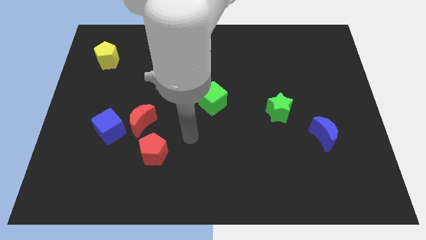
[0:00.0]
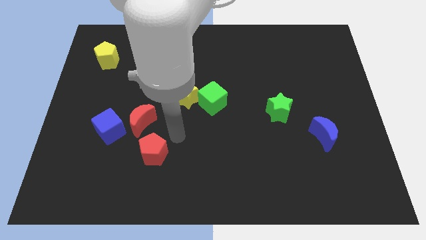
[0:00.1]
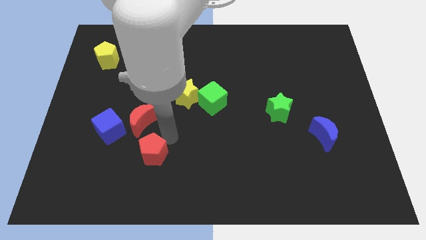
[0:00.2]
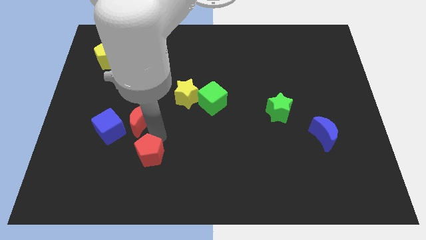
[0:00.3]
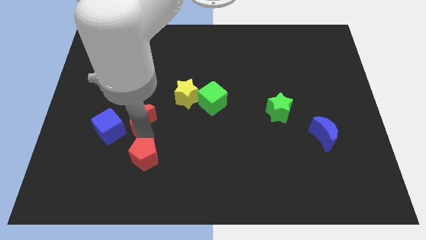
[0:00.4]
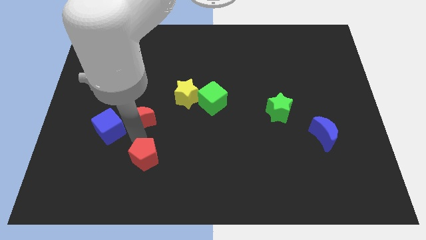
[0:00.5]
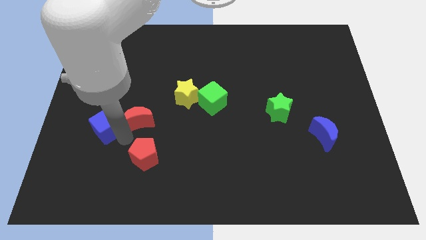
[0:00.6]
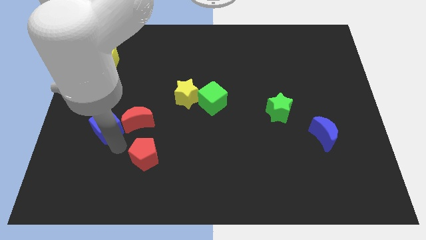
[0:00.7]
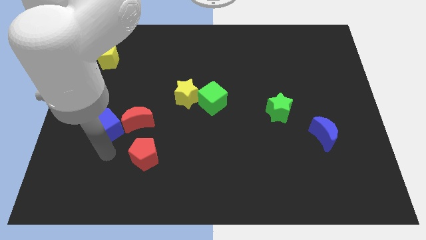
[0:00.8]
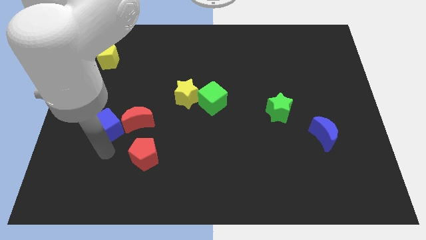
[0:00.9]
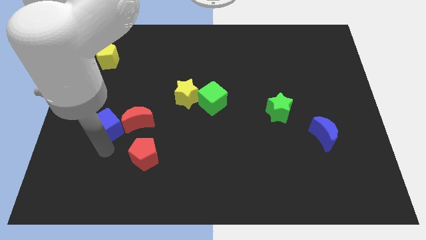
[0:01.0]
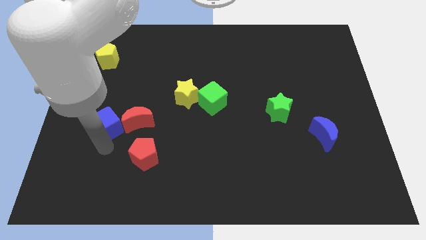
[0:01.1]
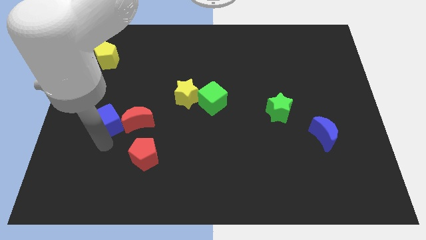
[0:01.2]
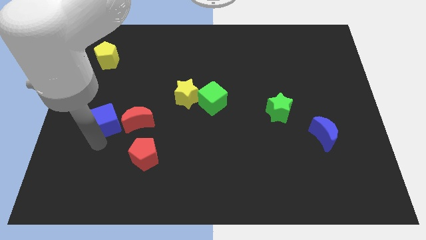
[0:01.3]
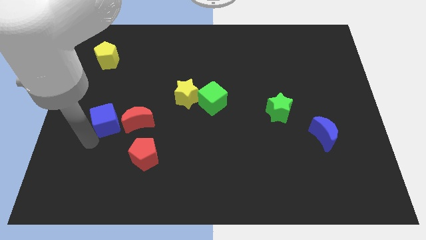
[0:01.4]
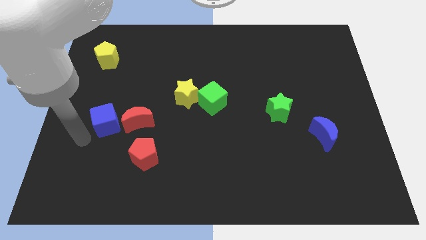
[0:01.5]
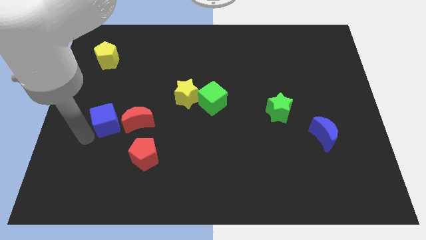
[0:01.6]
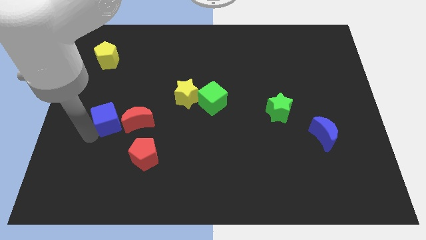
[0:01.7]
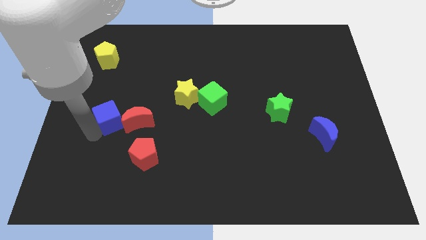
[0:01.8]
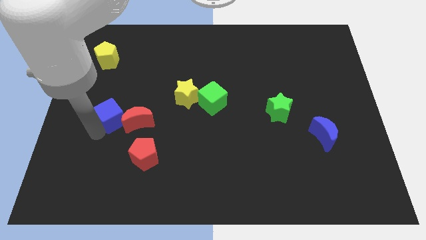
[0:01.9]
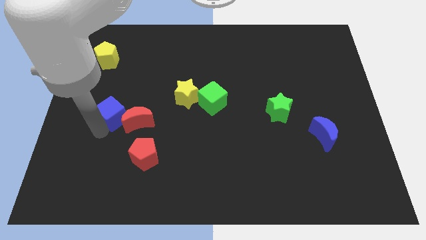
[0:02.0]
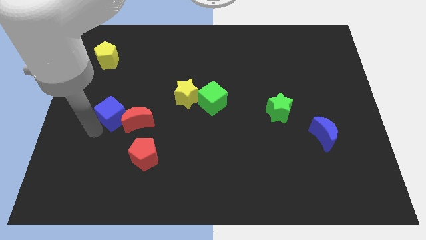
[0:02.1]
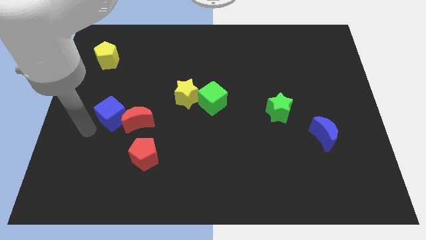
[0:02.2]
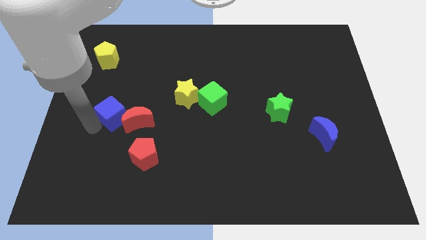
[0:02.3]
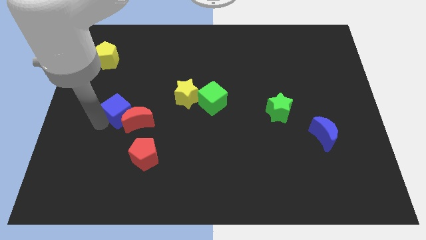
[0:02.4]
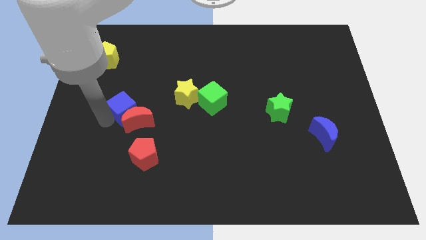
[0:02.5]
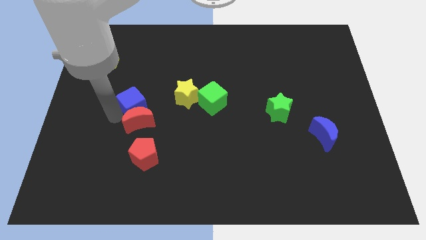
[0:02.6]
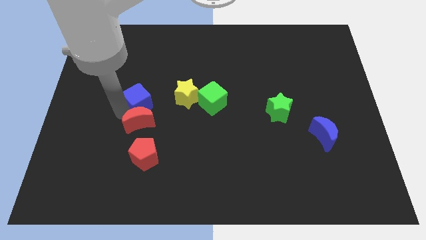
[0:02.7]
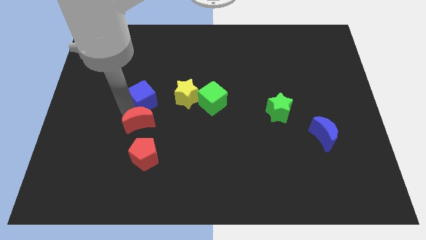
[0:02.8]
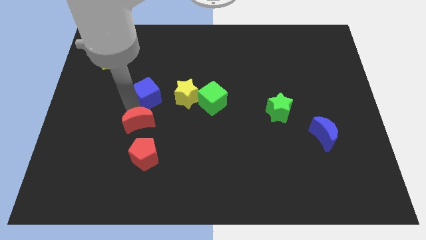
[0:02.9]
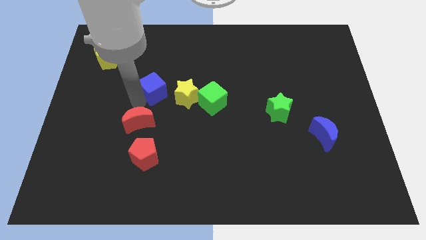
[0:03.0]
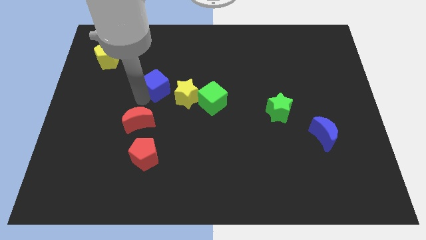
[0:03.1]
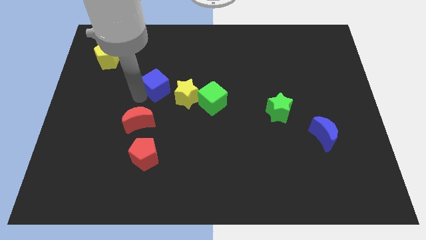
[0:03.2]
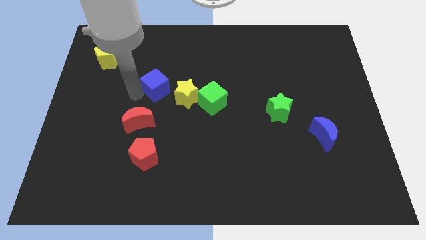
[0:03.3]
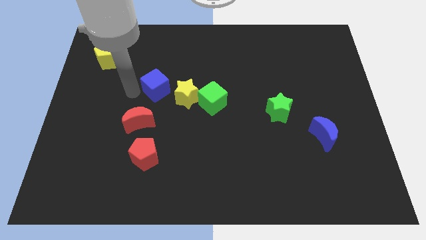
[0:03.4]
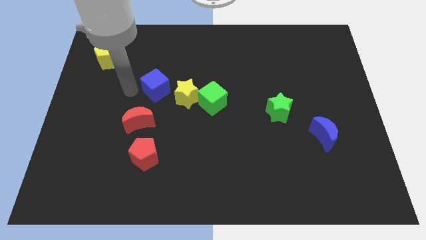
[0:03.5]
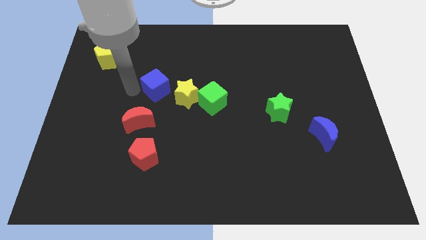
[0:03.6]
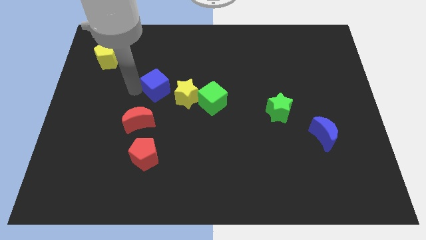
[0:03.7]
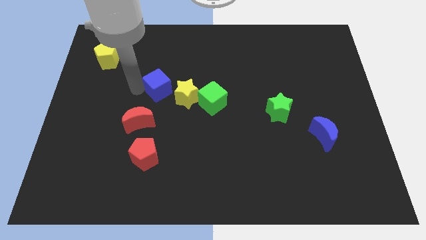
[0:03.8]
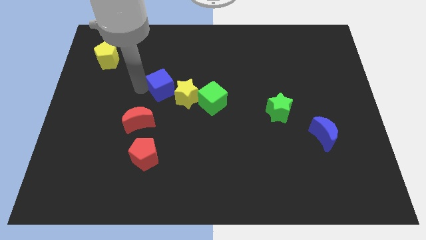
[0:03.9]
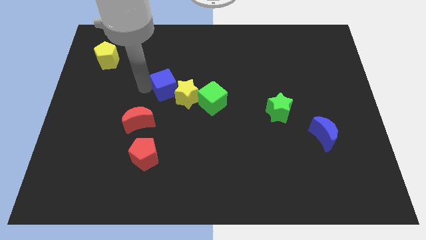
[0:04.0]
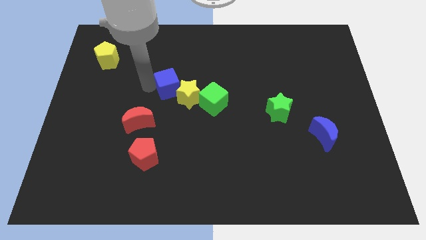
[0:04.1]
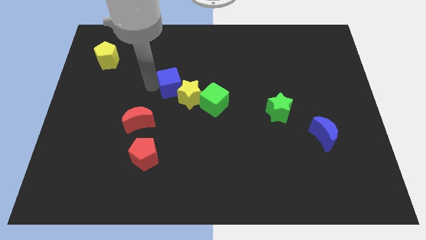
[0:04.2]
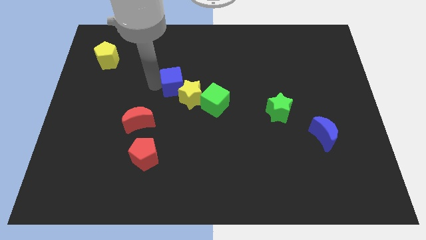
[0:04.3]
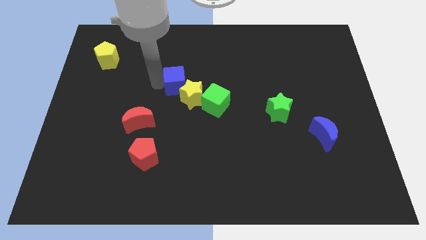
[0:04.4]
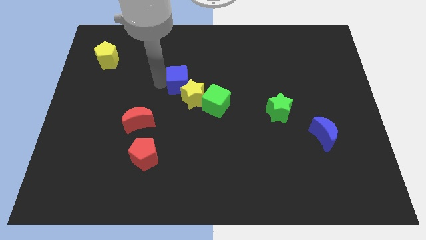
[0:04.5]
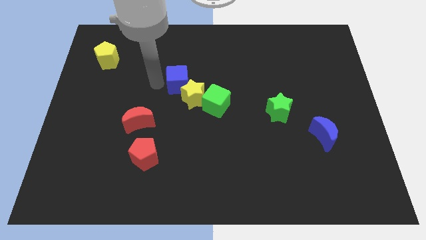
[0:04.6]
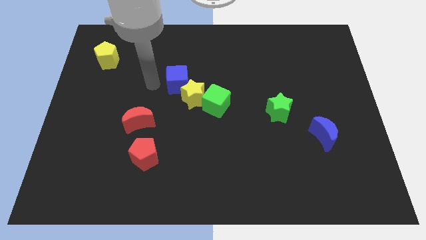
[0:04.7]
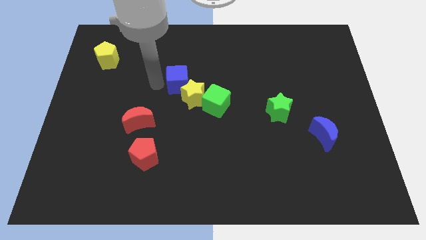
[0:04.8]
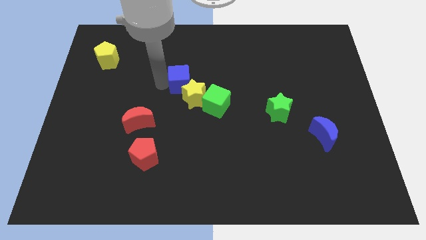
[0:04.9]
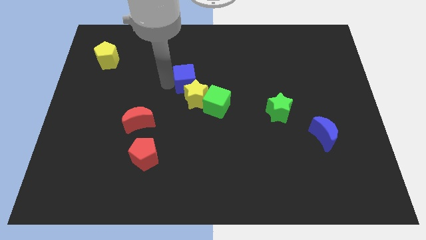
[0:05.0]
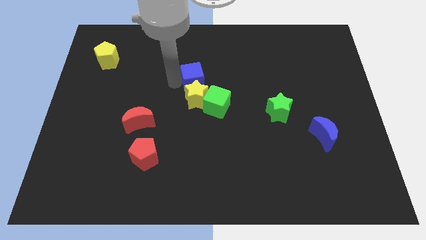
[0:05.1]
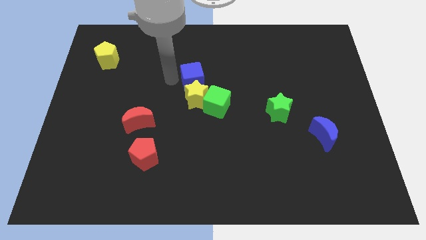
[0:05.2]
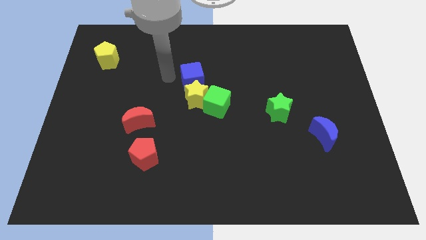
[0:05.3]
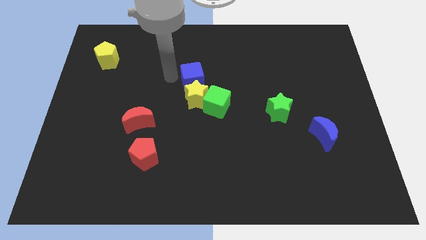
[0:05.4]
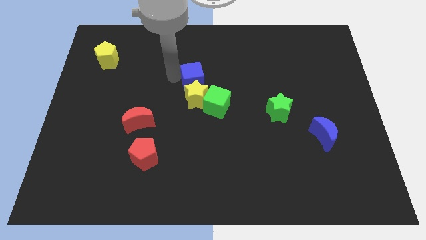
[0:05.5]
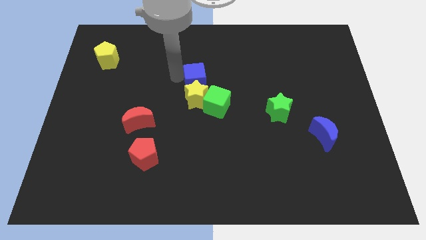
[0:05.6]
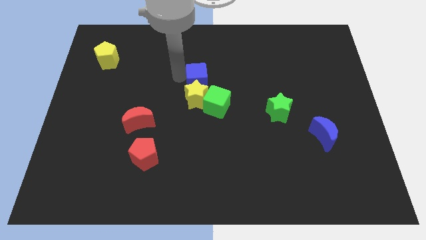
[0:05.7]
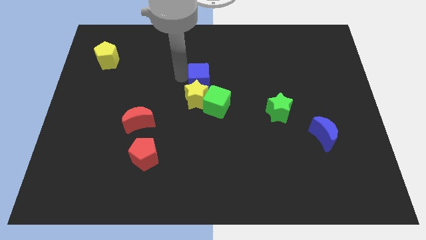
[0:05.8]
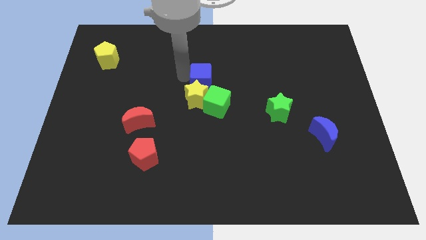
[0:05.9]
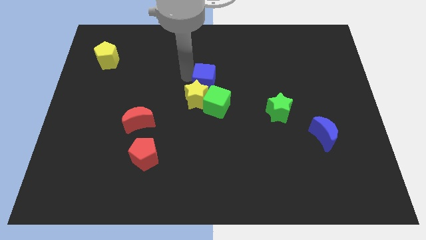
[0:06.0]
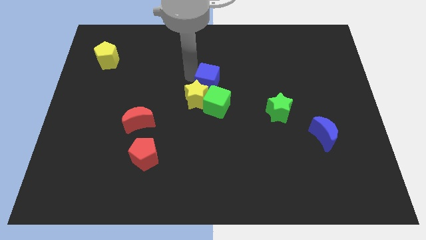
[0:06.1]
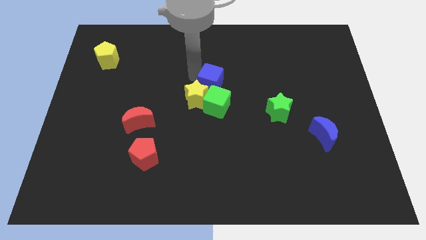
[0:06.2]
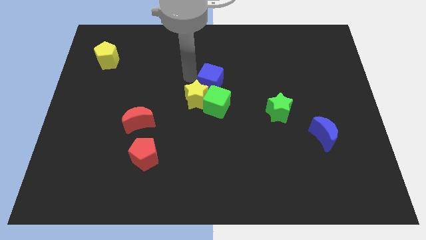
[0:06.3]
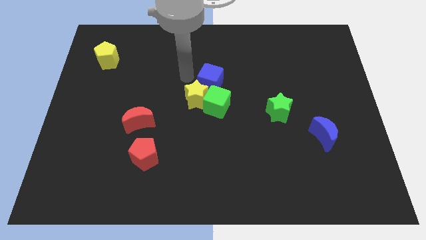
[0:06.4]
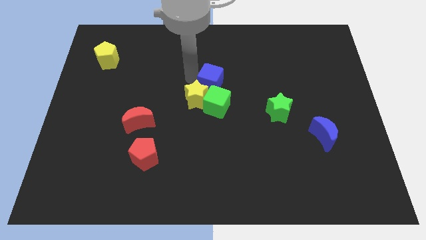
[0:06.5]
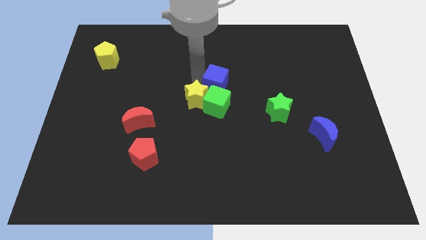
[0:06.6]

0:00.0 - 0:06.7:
move the blue cube to the top right side of the green cube

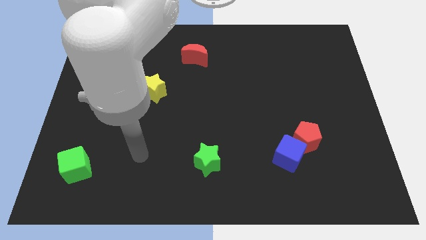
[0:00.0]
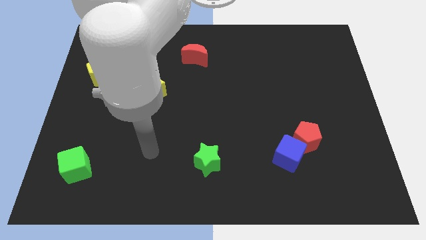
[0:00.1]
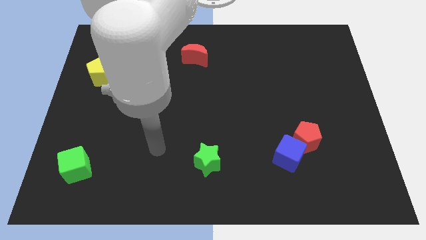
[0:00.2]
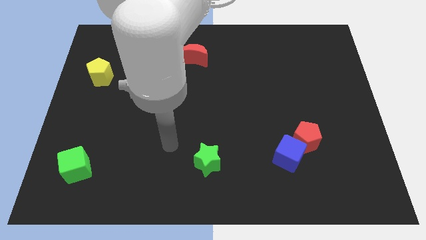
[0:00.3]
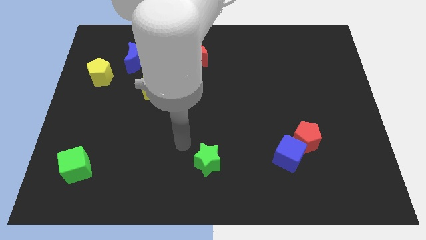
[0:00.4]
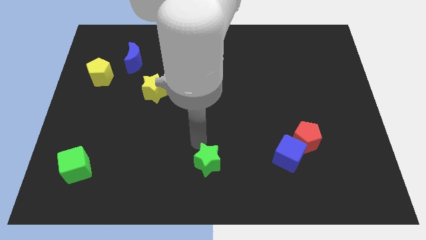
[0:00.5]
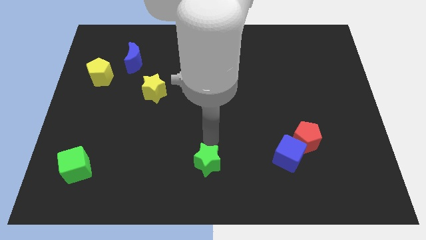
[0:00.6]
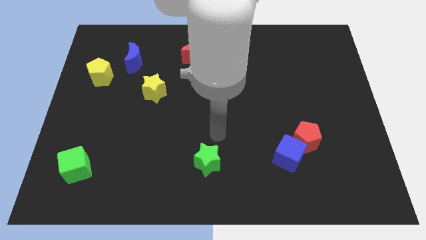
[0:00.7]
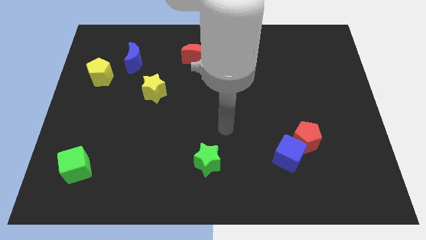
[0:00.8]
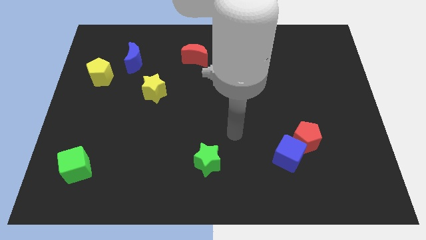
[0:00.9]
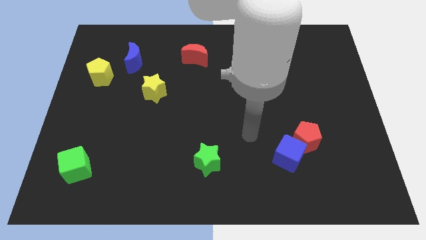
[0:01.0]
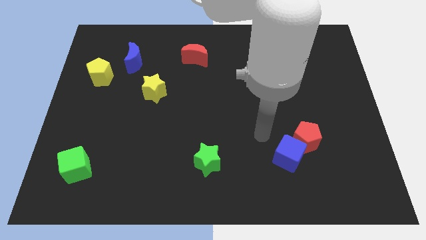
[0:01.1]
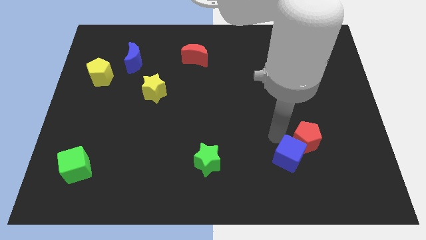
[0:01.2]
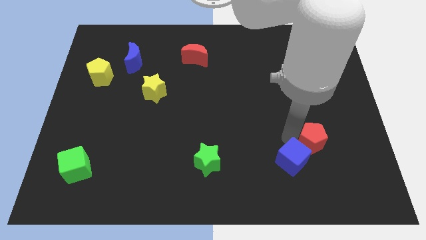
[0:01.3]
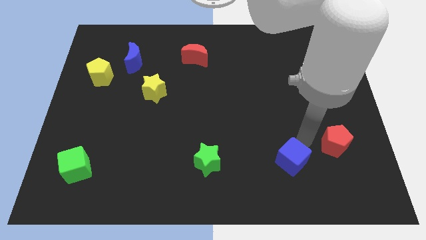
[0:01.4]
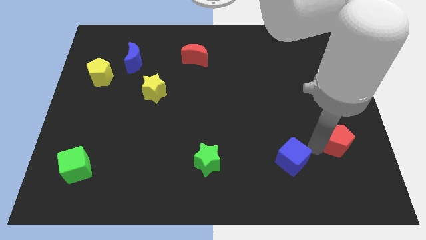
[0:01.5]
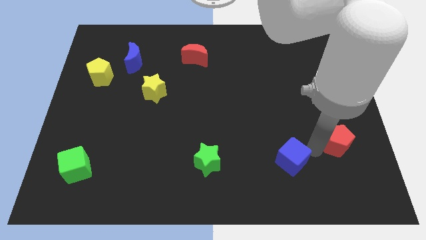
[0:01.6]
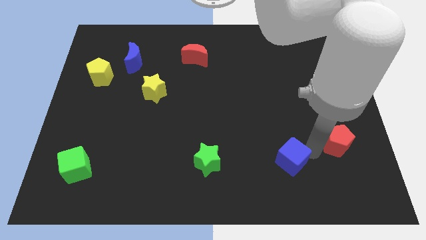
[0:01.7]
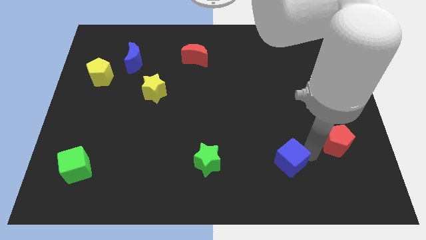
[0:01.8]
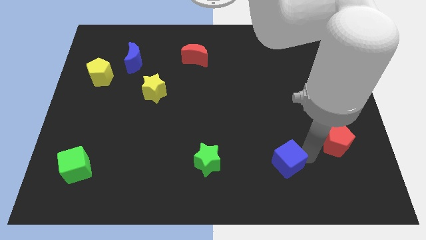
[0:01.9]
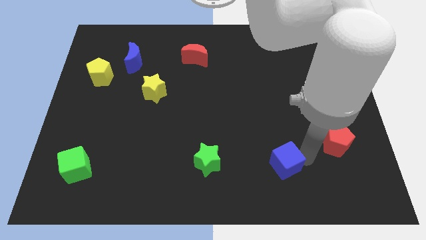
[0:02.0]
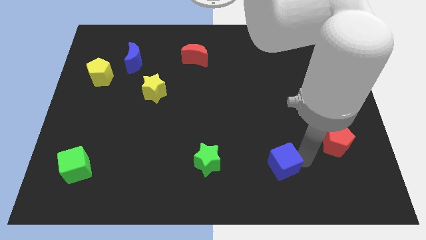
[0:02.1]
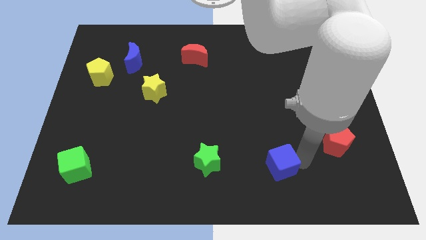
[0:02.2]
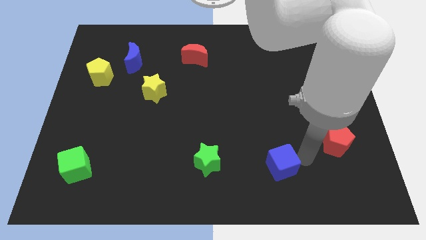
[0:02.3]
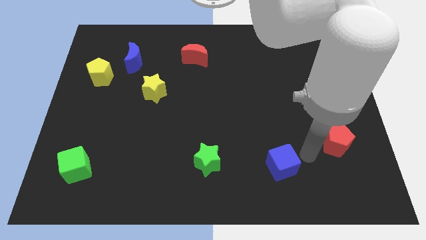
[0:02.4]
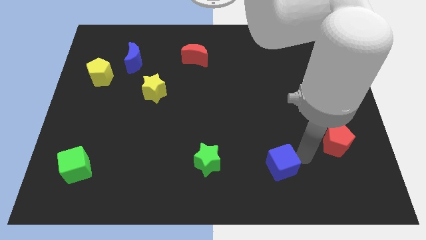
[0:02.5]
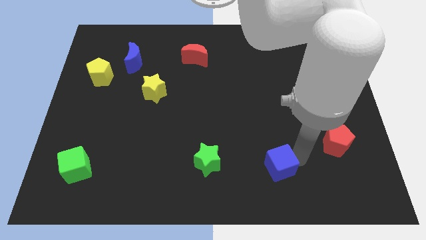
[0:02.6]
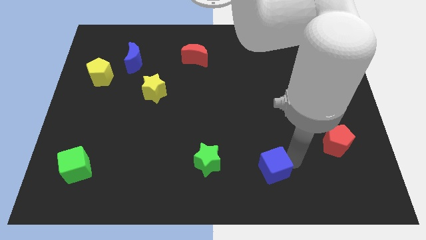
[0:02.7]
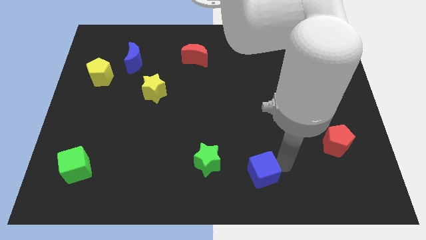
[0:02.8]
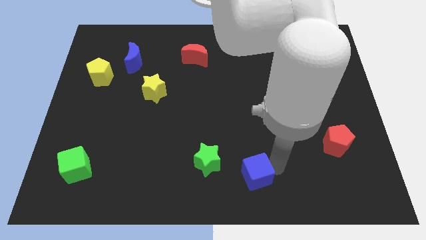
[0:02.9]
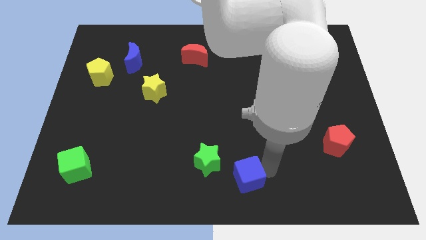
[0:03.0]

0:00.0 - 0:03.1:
slide the blue cube diagonally down and to the right of the green star
